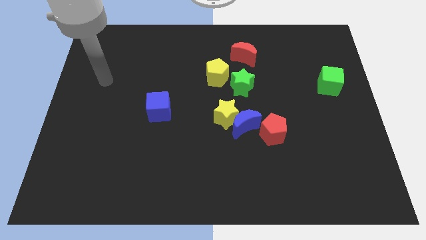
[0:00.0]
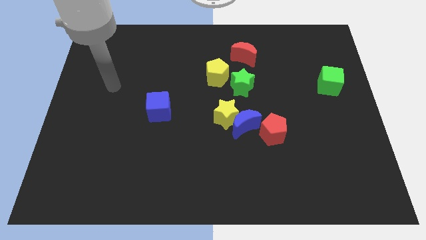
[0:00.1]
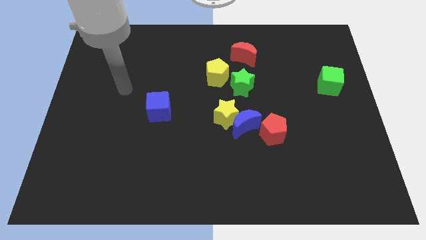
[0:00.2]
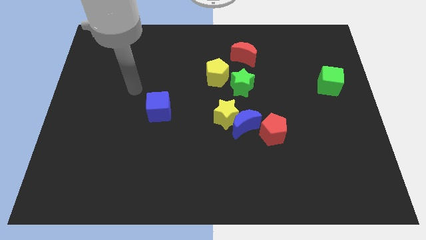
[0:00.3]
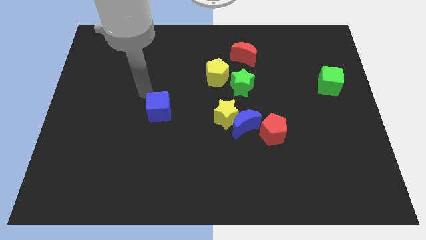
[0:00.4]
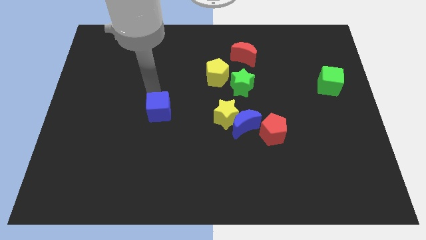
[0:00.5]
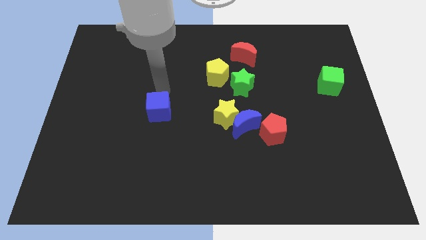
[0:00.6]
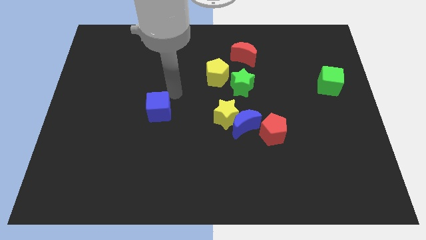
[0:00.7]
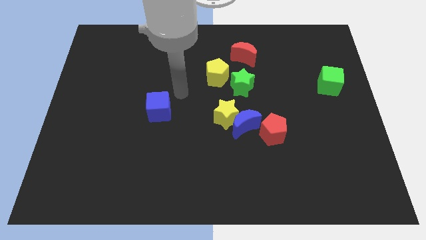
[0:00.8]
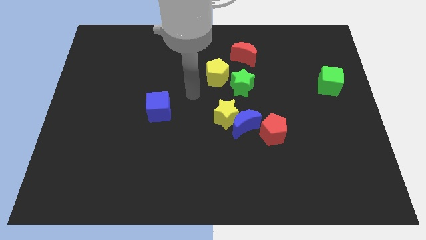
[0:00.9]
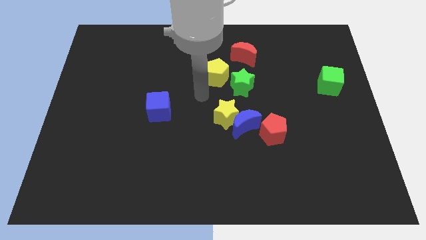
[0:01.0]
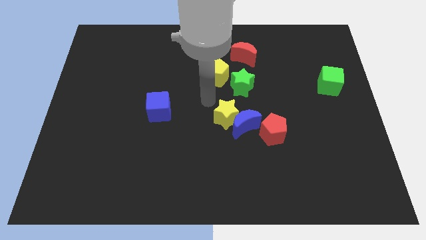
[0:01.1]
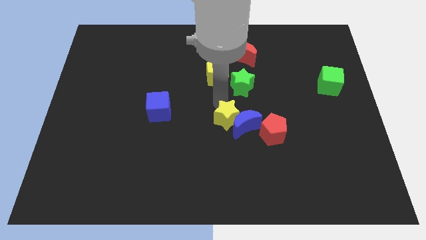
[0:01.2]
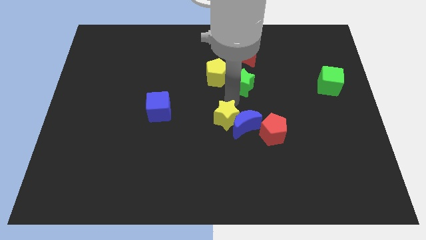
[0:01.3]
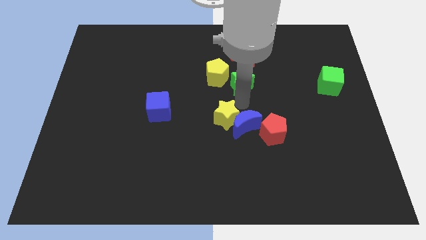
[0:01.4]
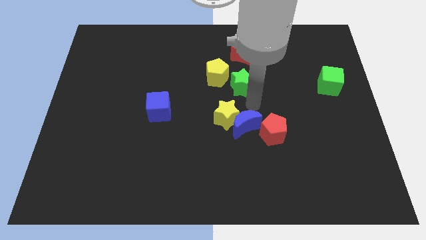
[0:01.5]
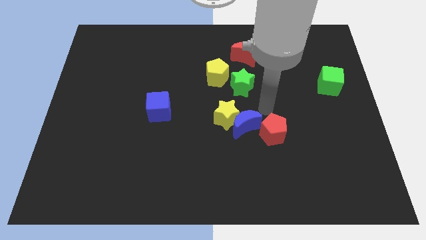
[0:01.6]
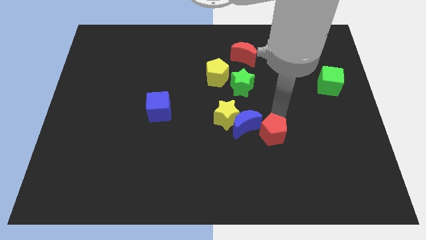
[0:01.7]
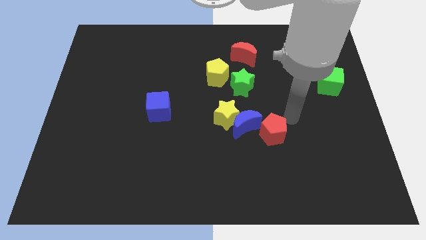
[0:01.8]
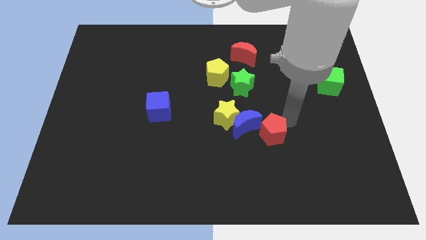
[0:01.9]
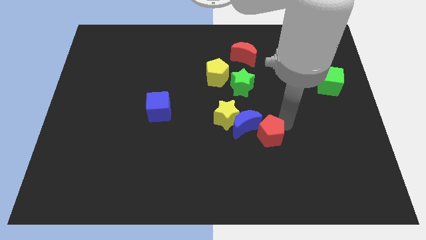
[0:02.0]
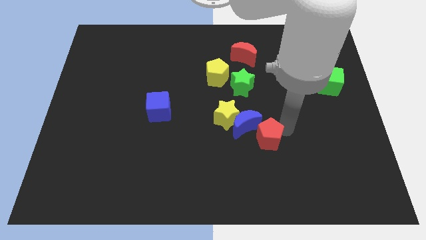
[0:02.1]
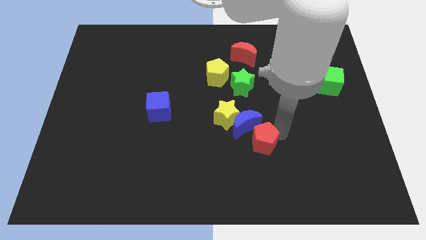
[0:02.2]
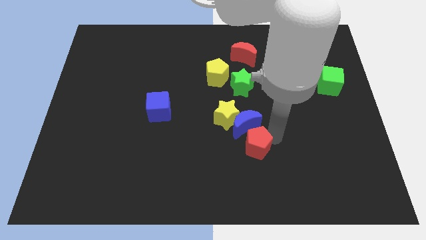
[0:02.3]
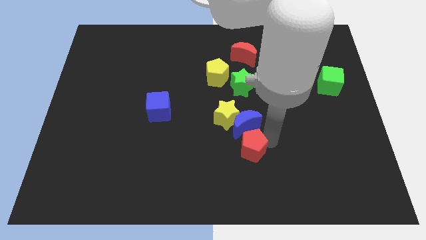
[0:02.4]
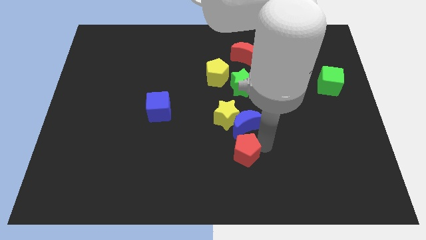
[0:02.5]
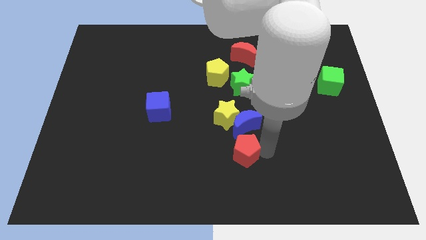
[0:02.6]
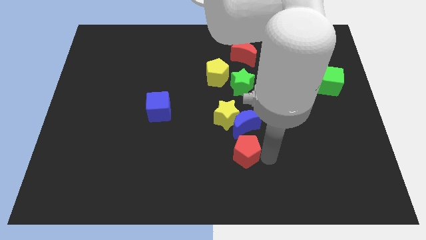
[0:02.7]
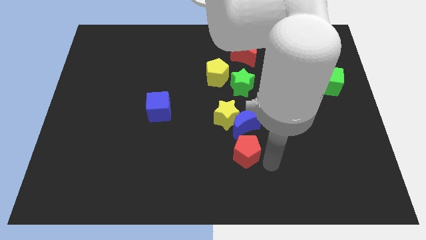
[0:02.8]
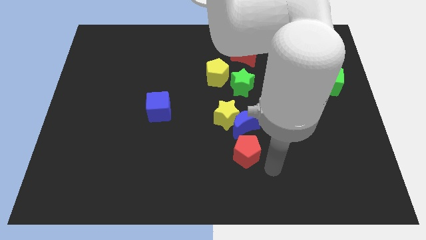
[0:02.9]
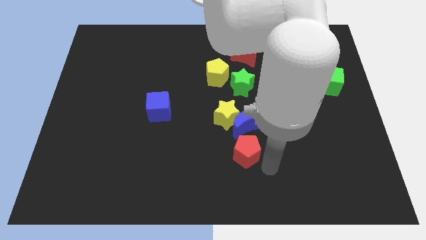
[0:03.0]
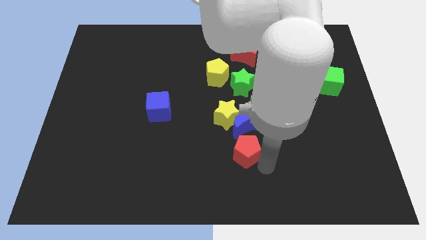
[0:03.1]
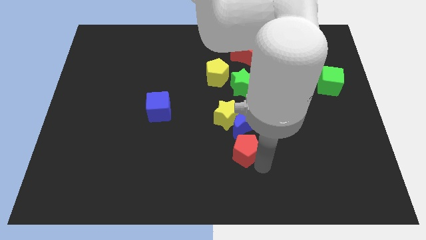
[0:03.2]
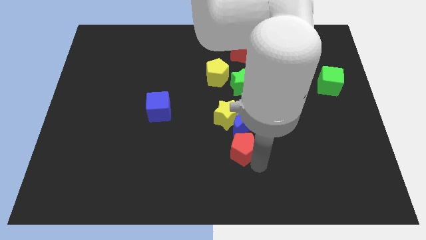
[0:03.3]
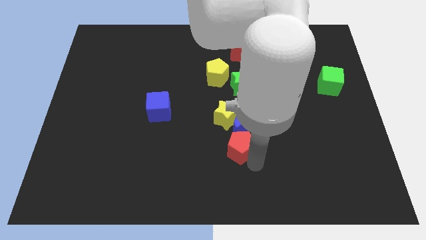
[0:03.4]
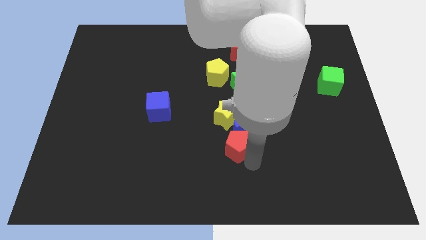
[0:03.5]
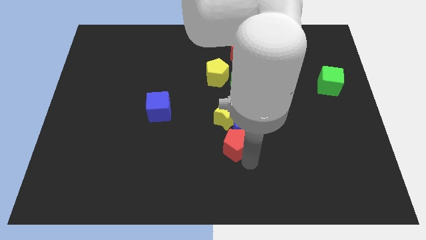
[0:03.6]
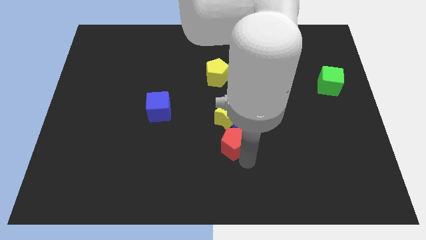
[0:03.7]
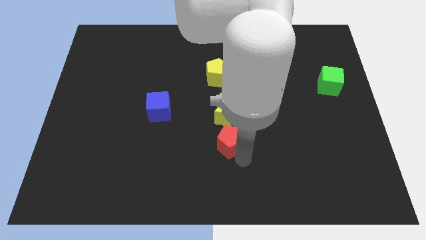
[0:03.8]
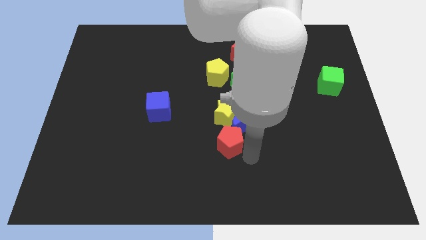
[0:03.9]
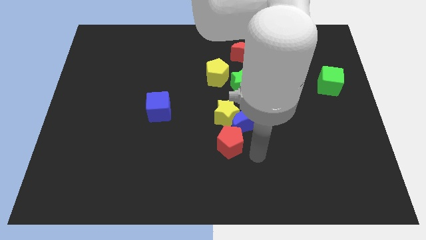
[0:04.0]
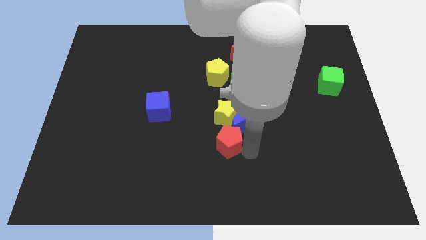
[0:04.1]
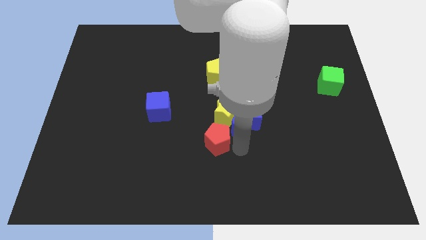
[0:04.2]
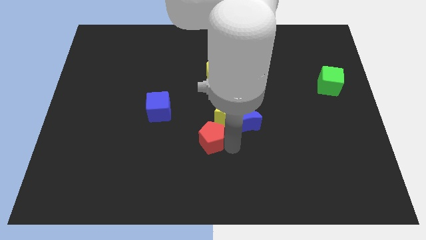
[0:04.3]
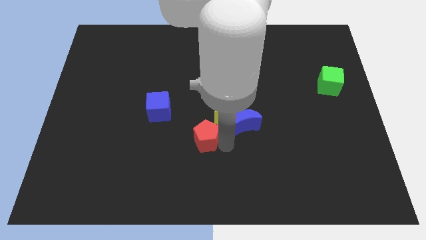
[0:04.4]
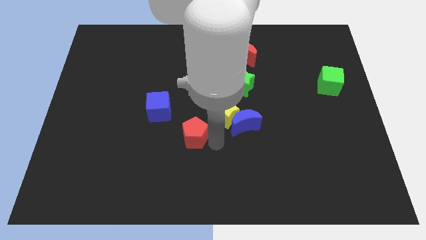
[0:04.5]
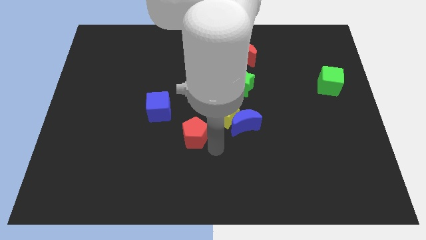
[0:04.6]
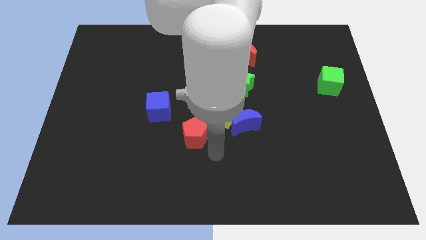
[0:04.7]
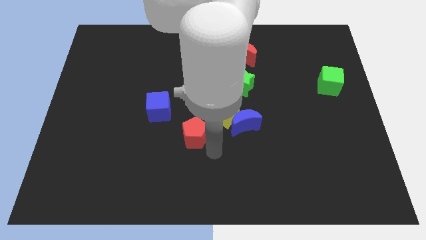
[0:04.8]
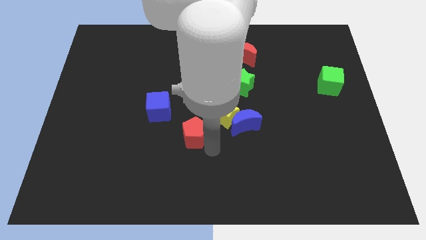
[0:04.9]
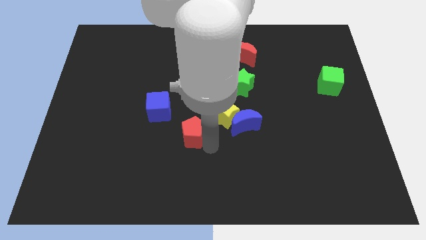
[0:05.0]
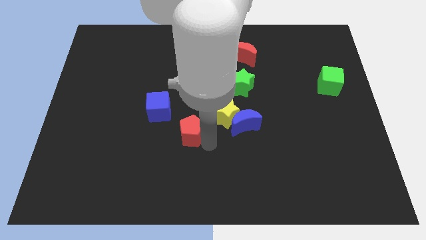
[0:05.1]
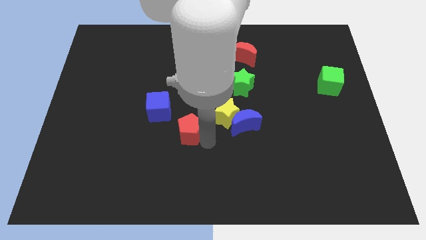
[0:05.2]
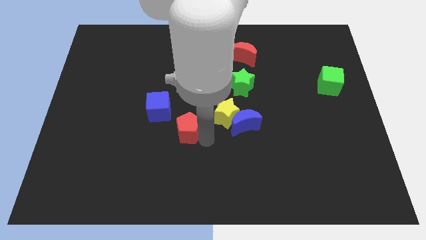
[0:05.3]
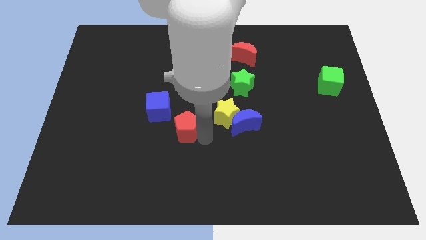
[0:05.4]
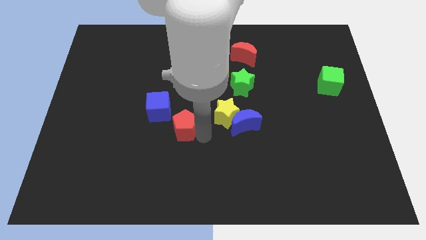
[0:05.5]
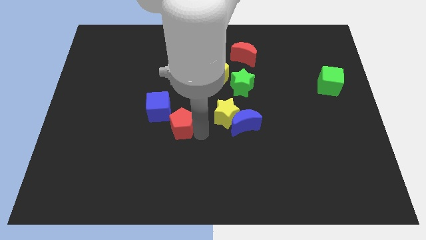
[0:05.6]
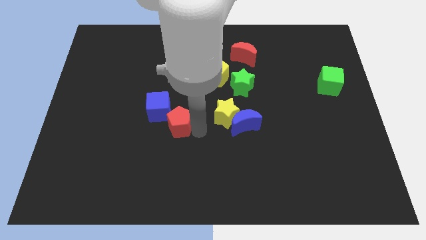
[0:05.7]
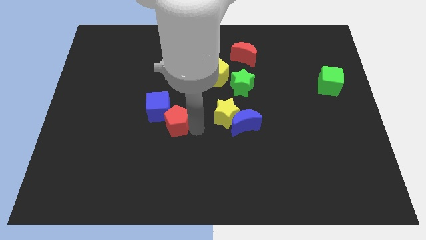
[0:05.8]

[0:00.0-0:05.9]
move the red pentagon towards the blue cube

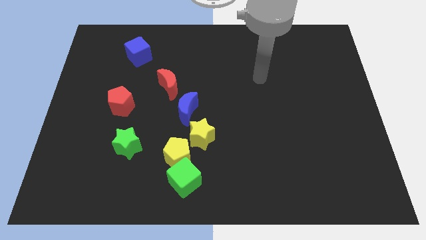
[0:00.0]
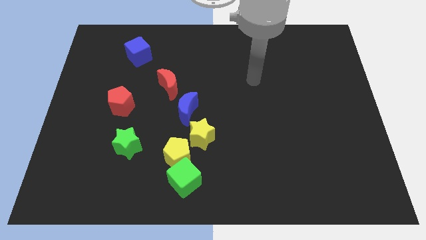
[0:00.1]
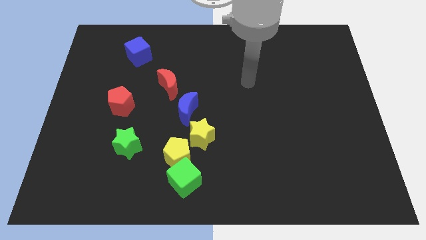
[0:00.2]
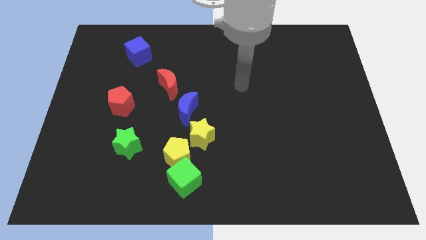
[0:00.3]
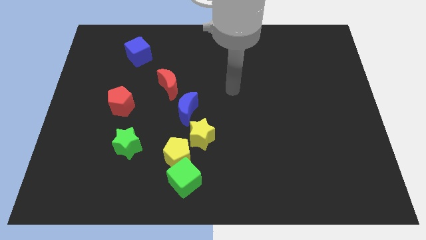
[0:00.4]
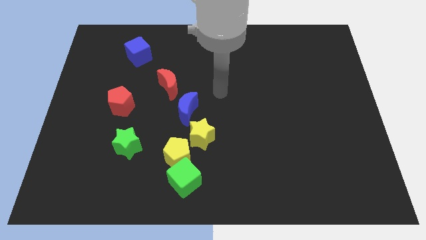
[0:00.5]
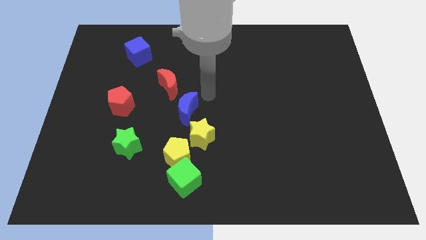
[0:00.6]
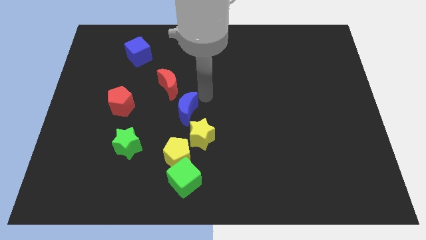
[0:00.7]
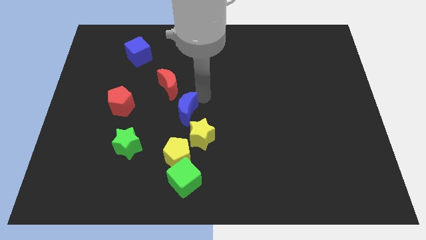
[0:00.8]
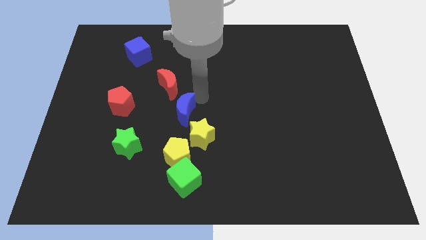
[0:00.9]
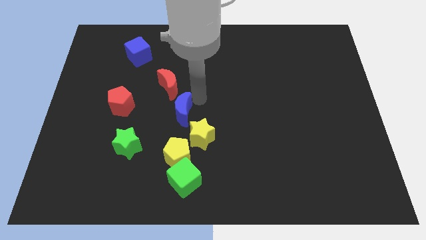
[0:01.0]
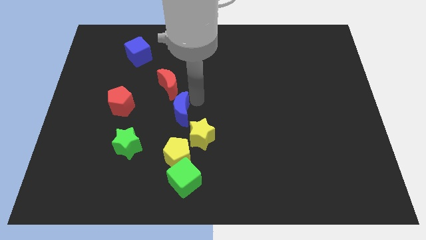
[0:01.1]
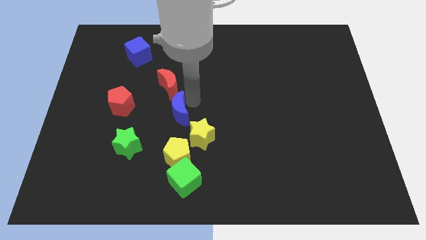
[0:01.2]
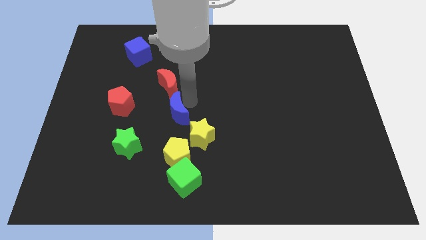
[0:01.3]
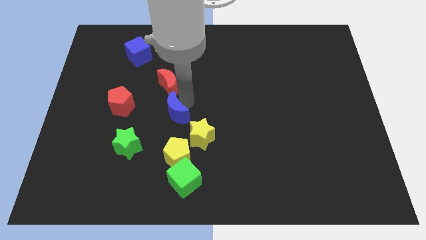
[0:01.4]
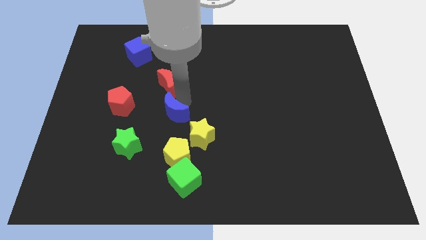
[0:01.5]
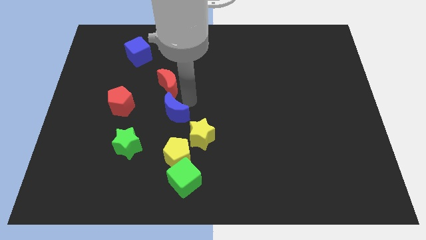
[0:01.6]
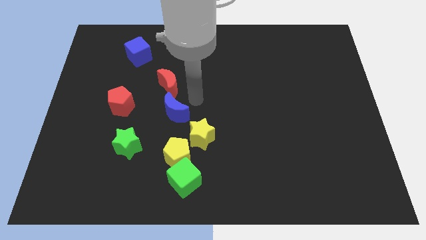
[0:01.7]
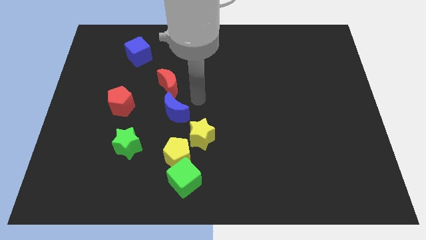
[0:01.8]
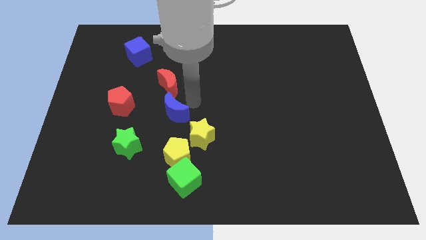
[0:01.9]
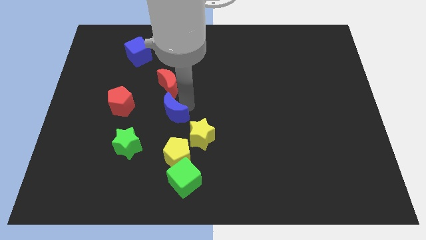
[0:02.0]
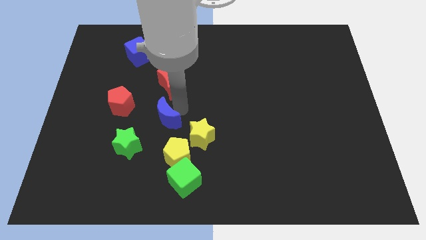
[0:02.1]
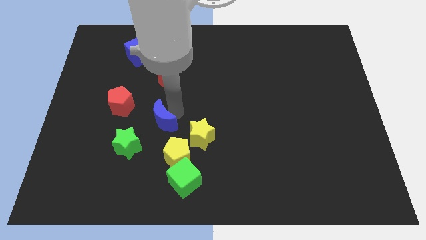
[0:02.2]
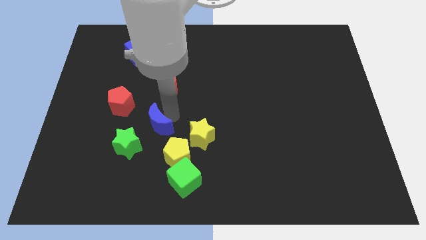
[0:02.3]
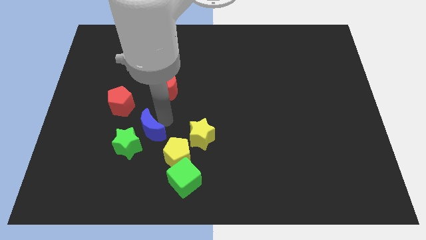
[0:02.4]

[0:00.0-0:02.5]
move the blue moon towards the green star
